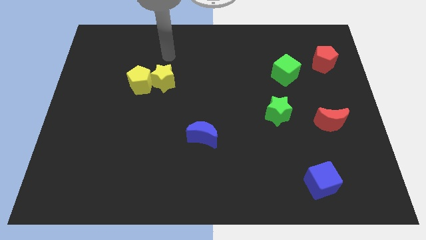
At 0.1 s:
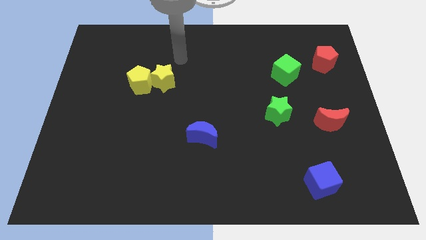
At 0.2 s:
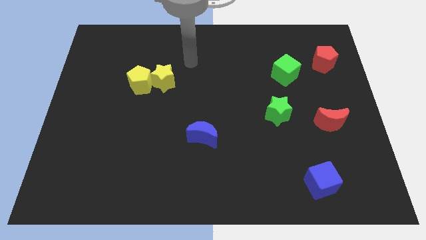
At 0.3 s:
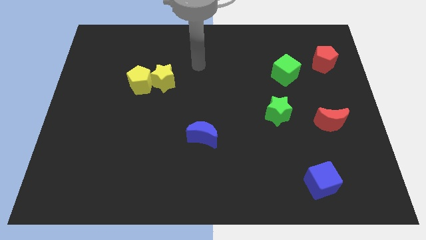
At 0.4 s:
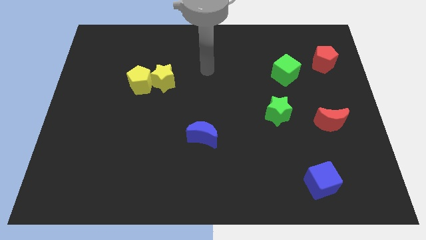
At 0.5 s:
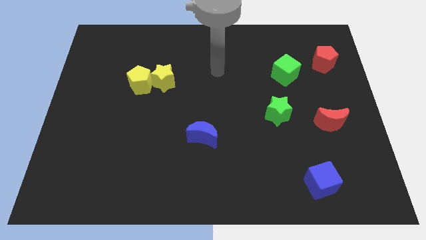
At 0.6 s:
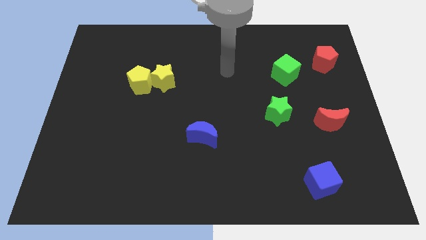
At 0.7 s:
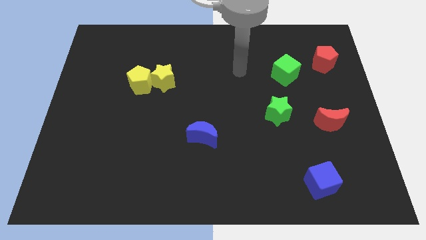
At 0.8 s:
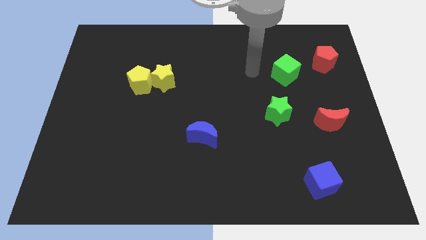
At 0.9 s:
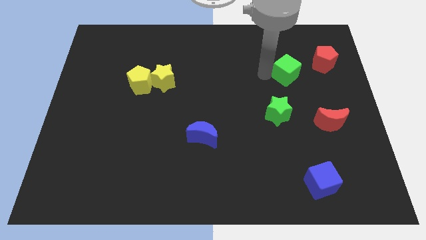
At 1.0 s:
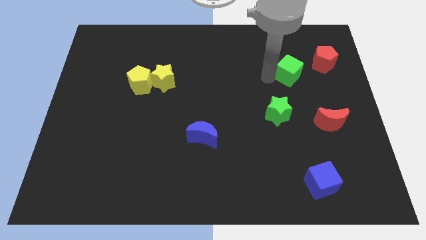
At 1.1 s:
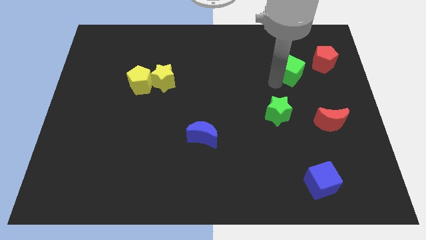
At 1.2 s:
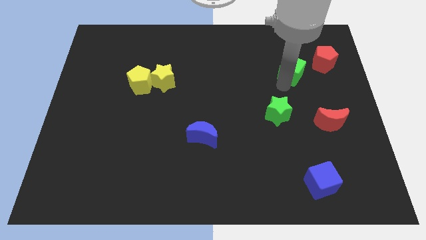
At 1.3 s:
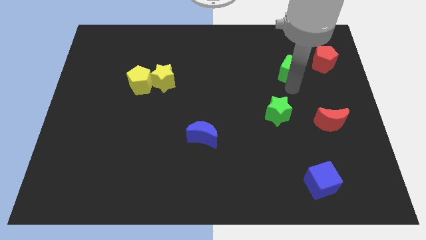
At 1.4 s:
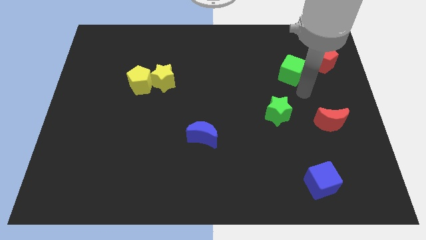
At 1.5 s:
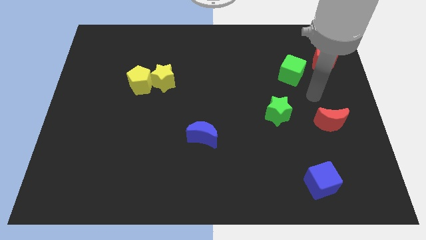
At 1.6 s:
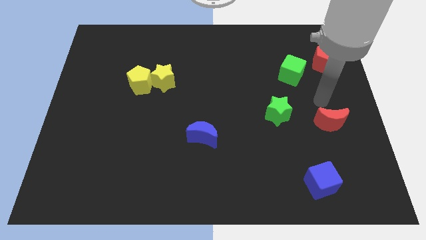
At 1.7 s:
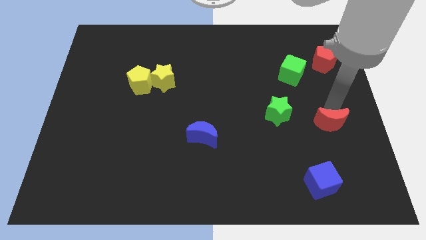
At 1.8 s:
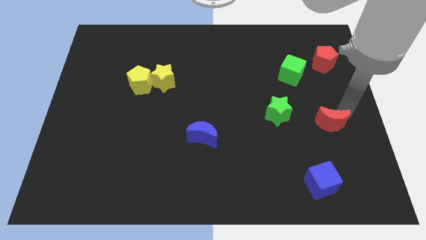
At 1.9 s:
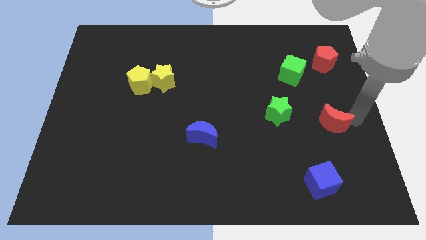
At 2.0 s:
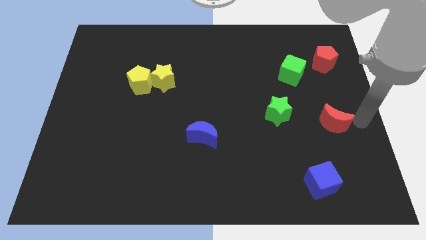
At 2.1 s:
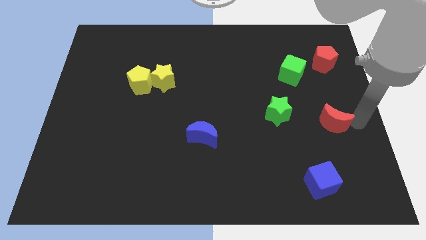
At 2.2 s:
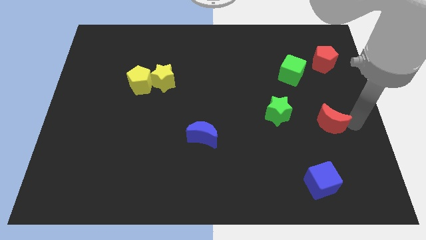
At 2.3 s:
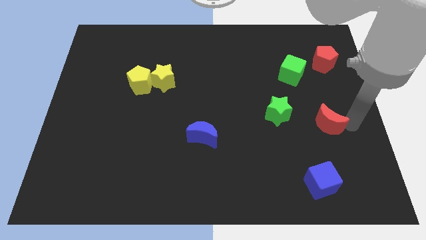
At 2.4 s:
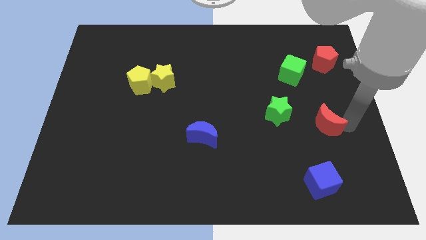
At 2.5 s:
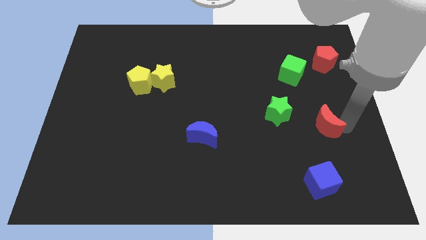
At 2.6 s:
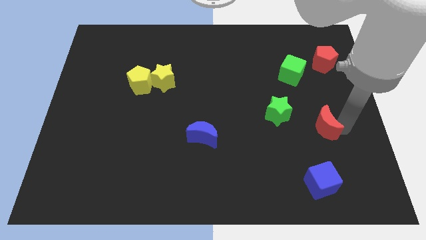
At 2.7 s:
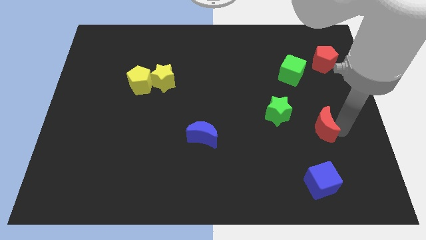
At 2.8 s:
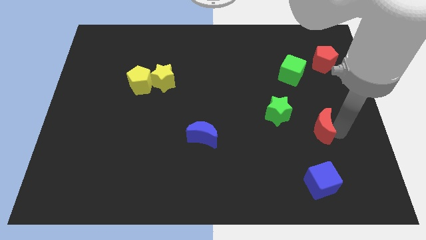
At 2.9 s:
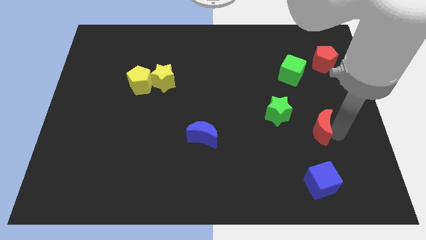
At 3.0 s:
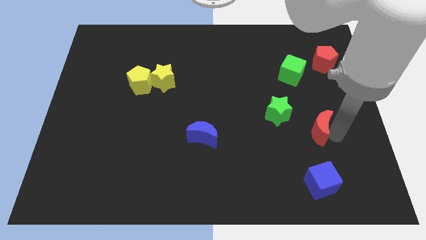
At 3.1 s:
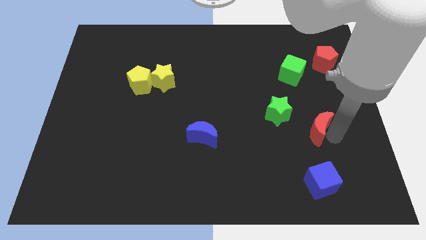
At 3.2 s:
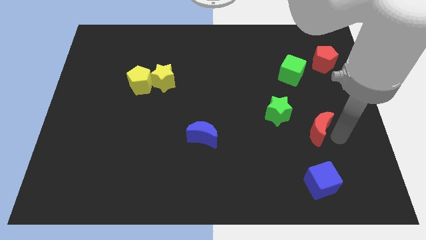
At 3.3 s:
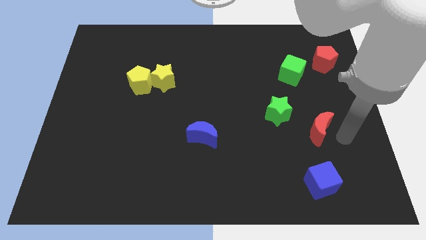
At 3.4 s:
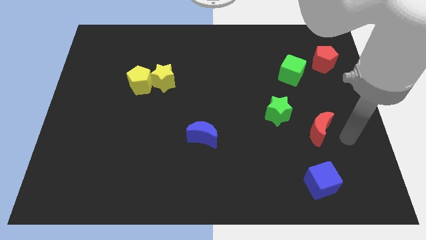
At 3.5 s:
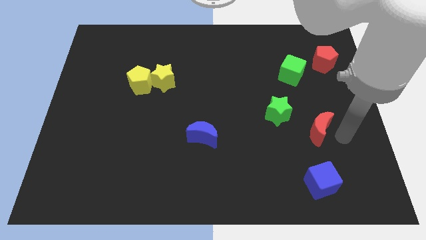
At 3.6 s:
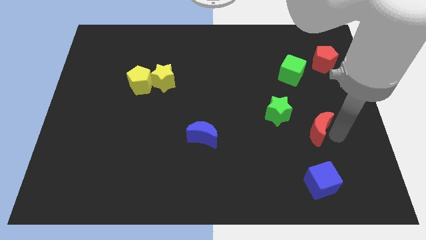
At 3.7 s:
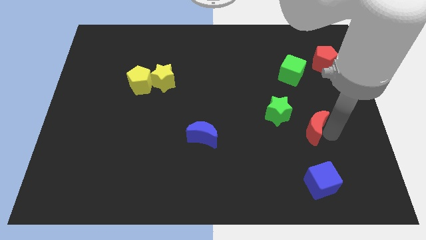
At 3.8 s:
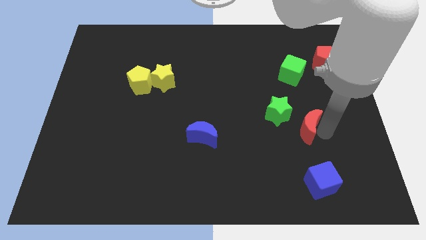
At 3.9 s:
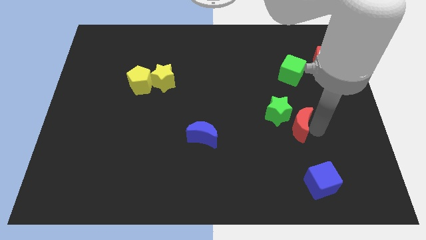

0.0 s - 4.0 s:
slightly move the red moon left

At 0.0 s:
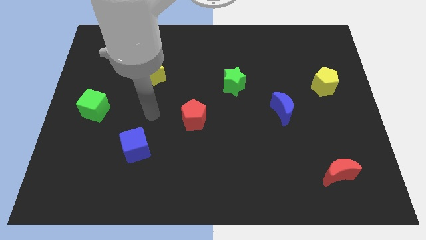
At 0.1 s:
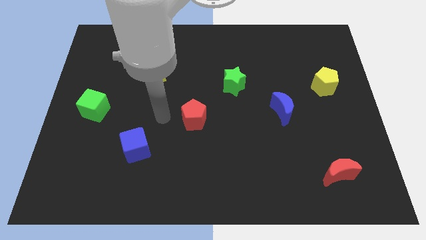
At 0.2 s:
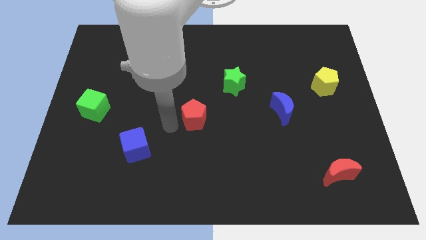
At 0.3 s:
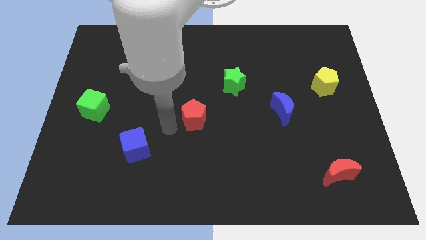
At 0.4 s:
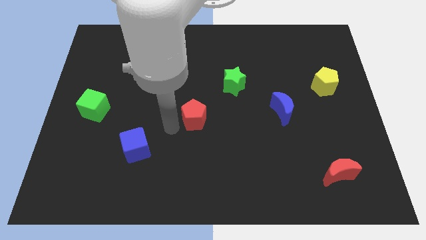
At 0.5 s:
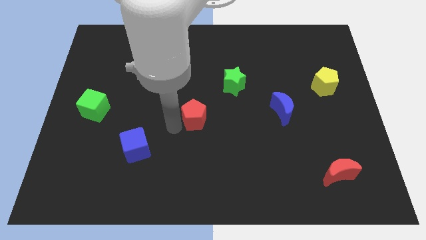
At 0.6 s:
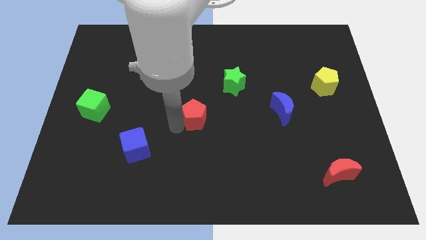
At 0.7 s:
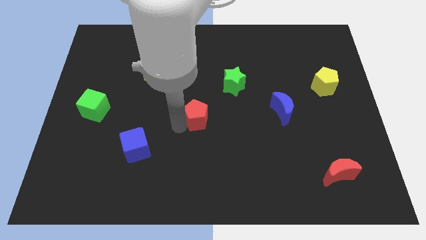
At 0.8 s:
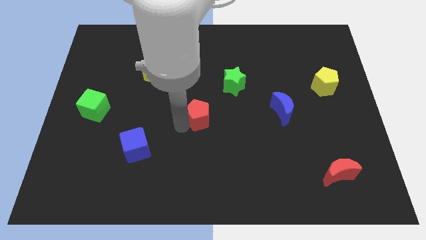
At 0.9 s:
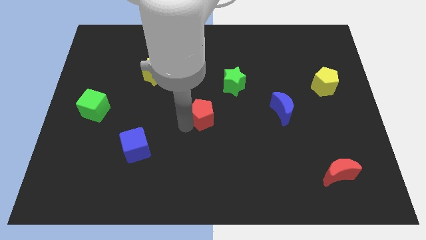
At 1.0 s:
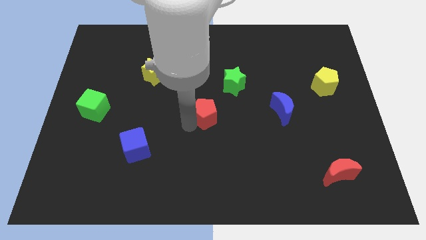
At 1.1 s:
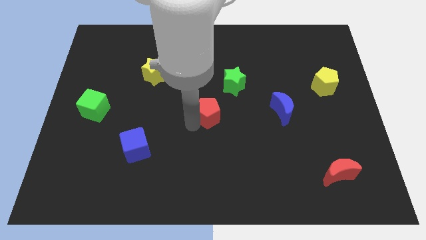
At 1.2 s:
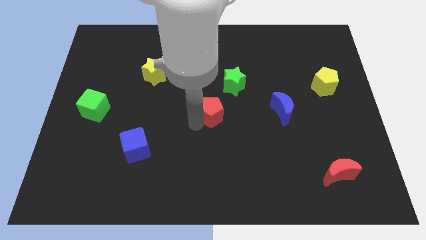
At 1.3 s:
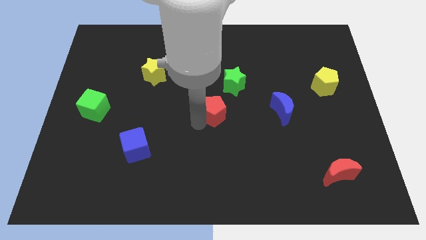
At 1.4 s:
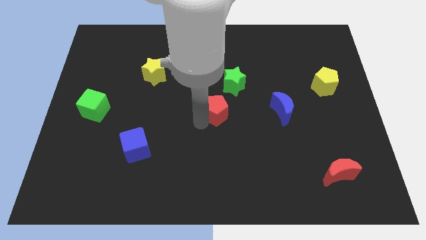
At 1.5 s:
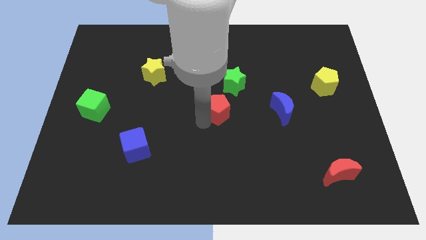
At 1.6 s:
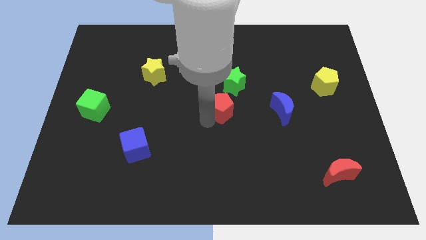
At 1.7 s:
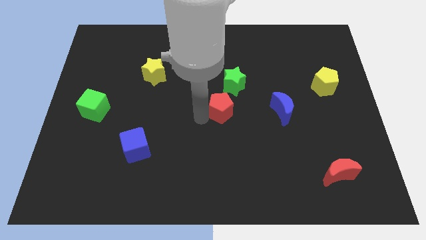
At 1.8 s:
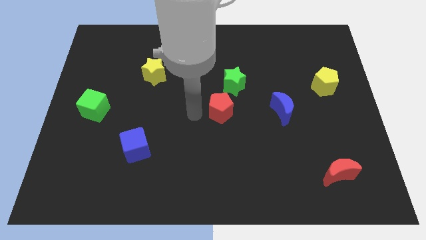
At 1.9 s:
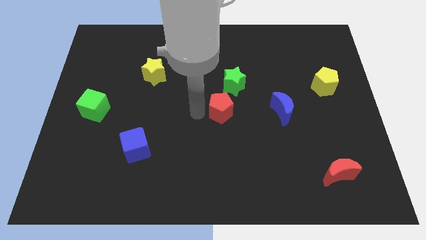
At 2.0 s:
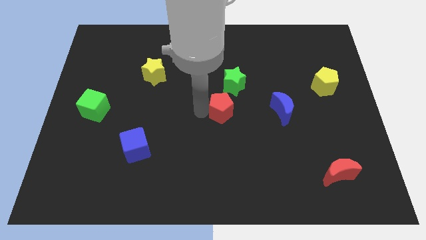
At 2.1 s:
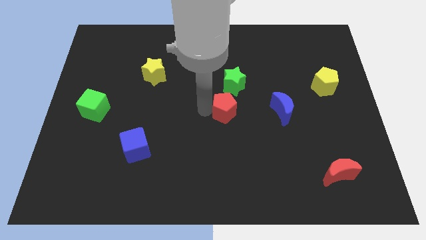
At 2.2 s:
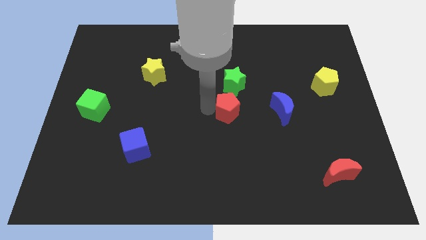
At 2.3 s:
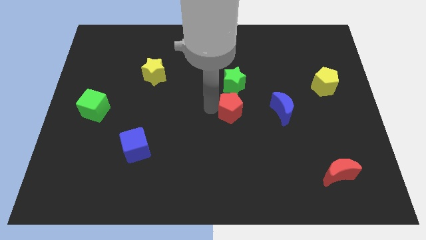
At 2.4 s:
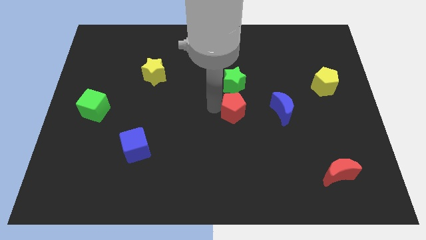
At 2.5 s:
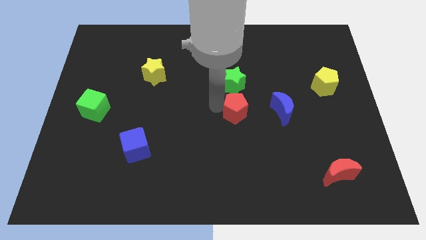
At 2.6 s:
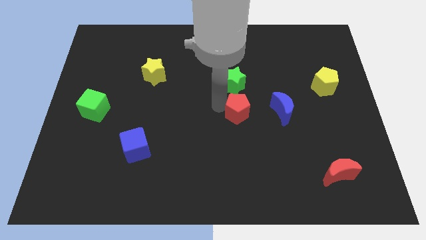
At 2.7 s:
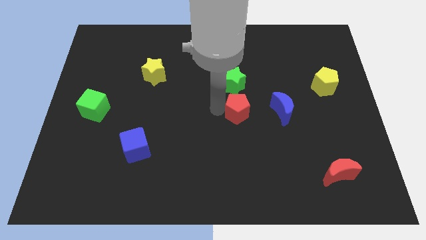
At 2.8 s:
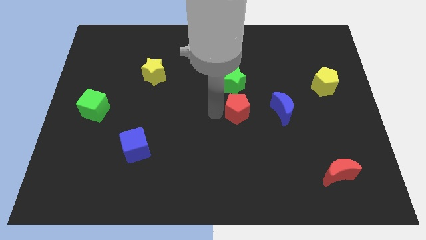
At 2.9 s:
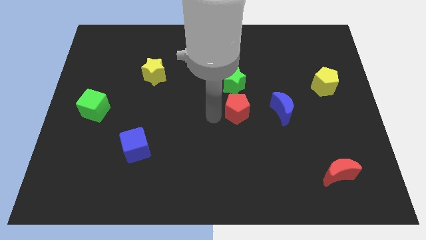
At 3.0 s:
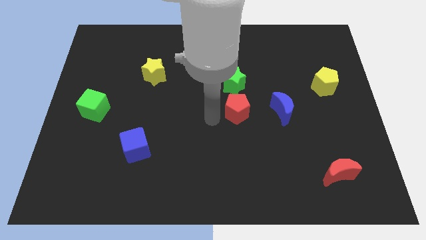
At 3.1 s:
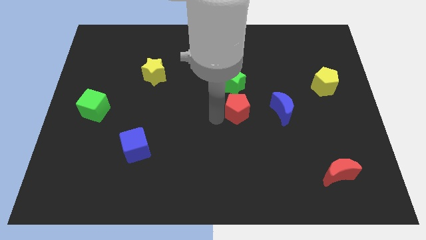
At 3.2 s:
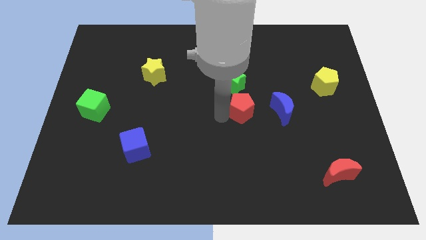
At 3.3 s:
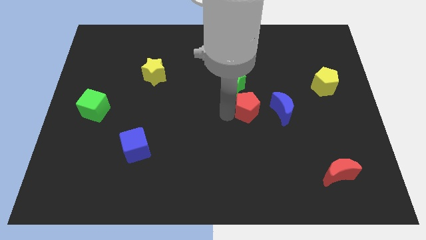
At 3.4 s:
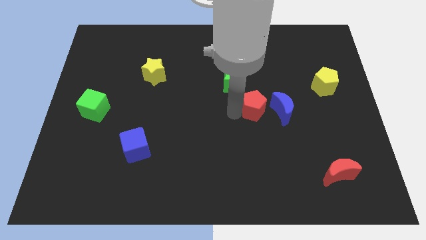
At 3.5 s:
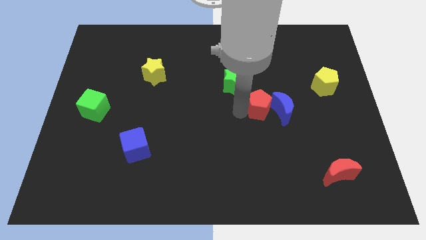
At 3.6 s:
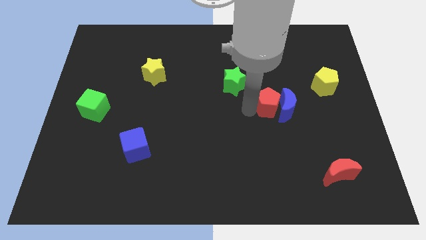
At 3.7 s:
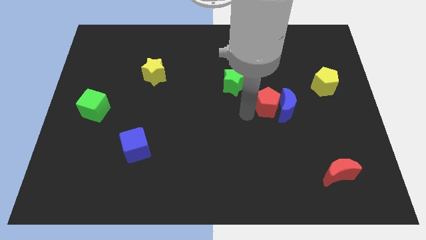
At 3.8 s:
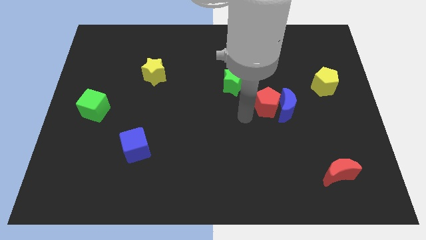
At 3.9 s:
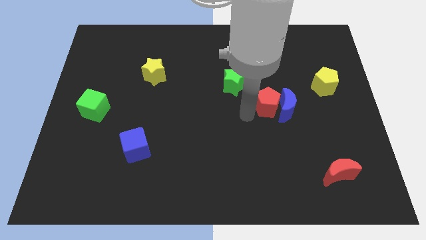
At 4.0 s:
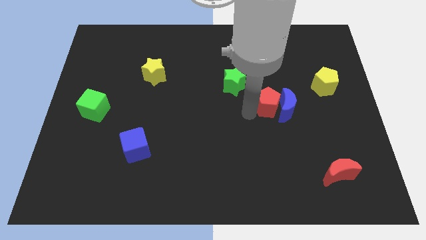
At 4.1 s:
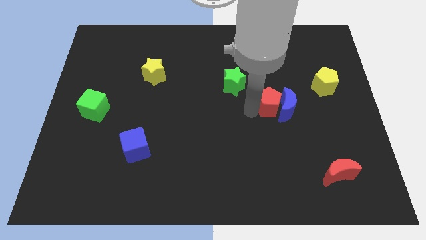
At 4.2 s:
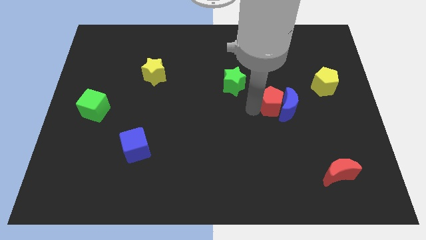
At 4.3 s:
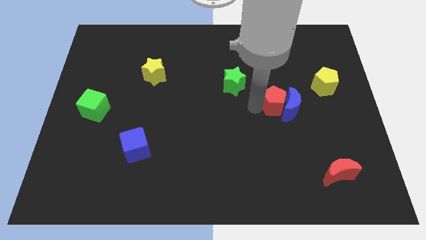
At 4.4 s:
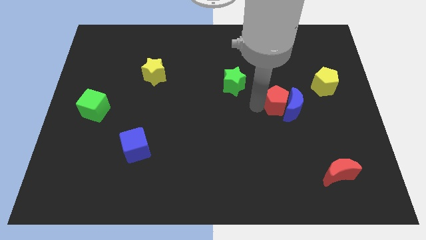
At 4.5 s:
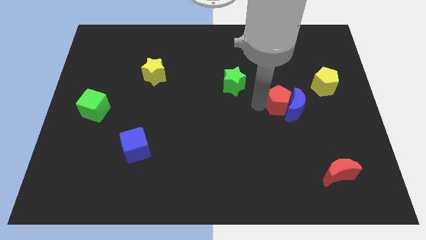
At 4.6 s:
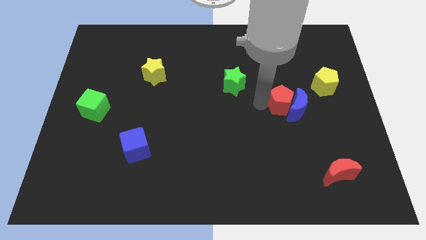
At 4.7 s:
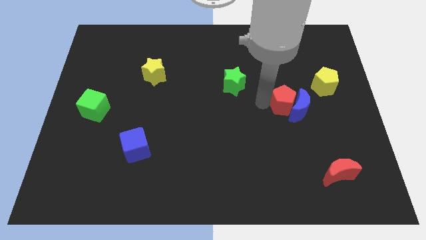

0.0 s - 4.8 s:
push the red pentagon right

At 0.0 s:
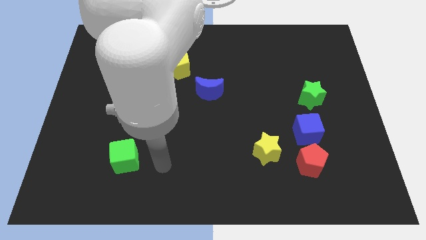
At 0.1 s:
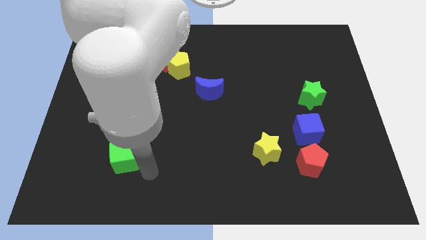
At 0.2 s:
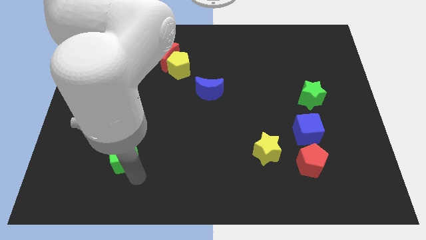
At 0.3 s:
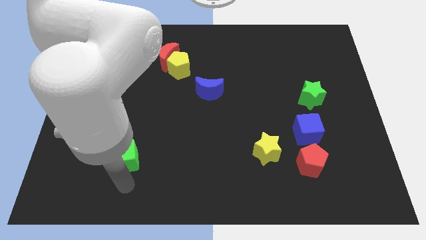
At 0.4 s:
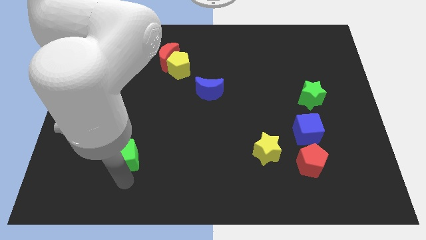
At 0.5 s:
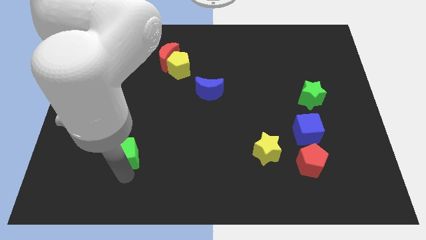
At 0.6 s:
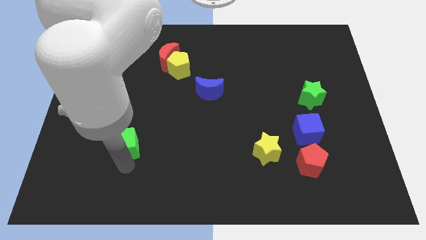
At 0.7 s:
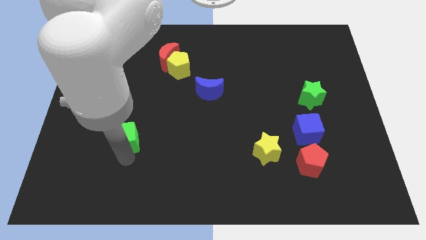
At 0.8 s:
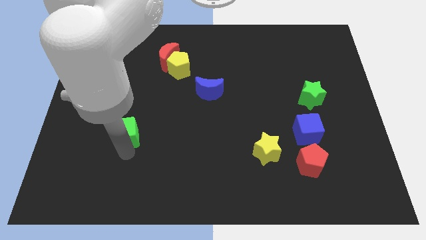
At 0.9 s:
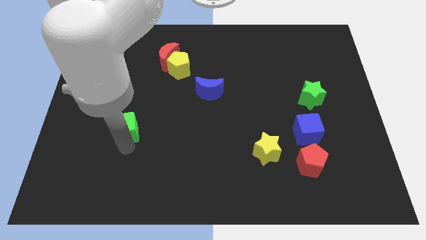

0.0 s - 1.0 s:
slightly move the green cube upwards
